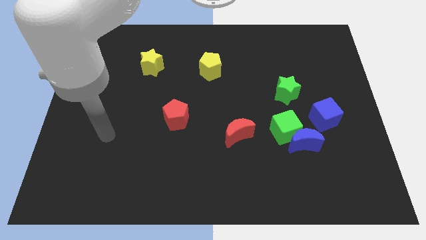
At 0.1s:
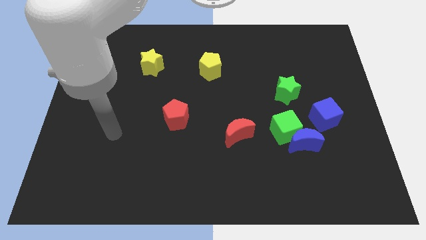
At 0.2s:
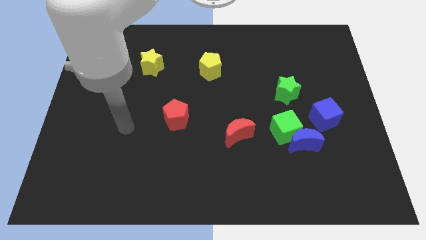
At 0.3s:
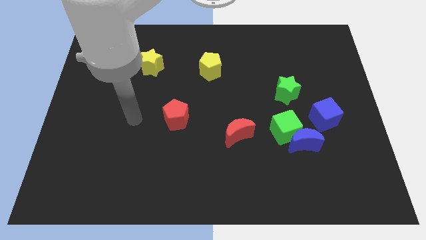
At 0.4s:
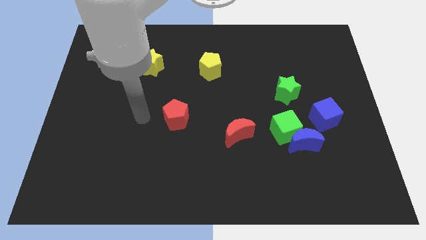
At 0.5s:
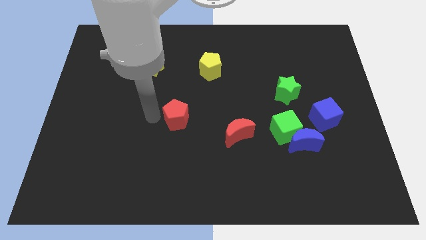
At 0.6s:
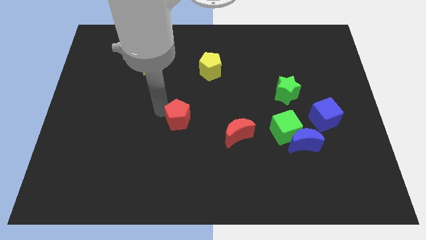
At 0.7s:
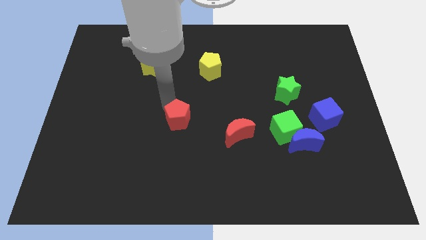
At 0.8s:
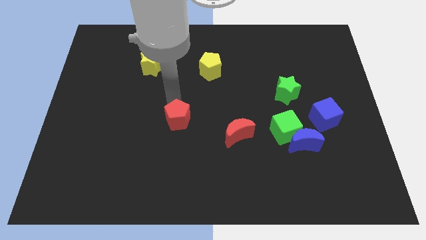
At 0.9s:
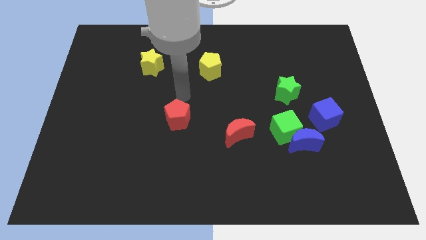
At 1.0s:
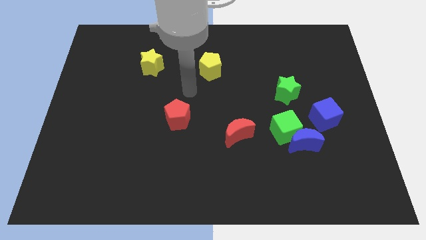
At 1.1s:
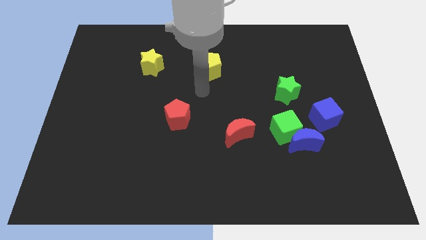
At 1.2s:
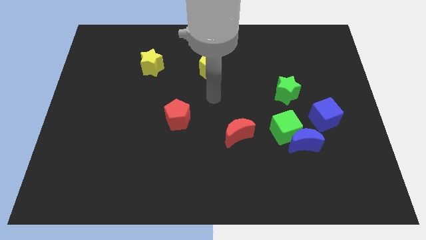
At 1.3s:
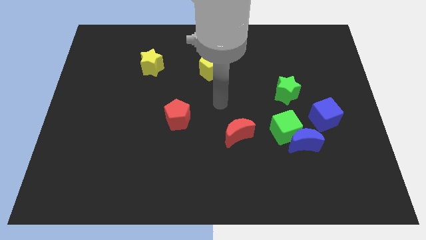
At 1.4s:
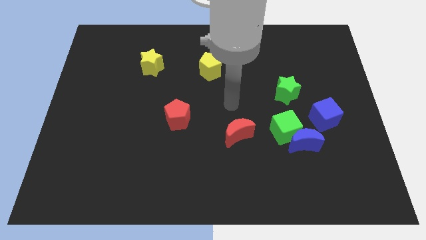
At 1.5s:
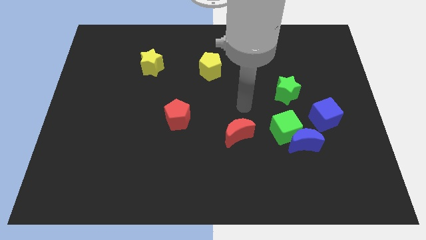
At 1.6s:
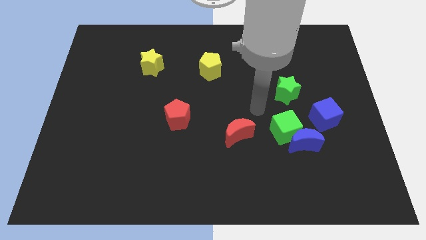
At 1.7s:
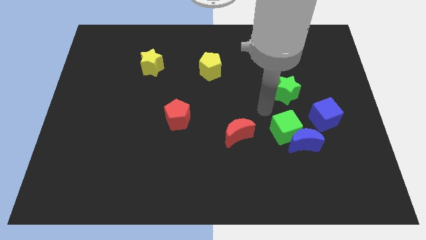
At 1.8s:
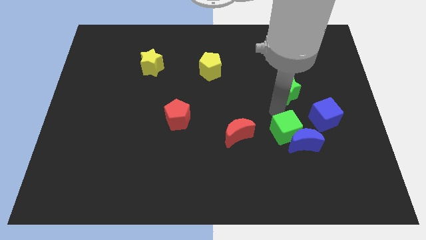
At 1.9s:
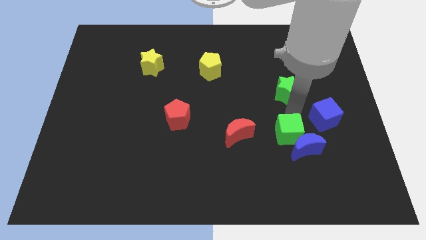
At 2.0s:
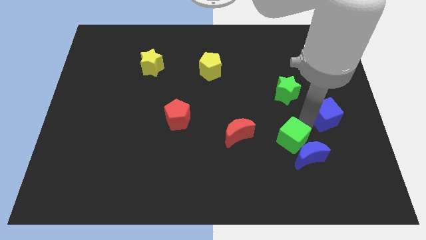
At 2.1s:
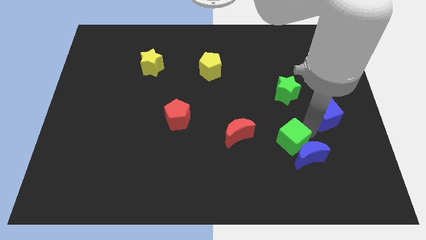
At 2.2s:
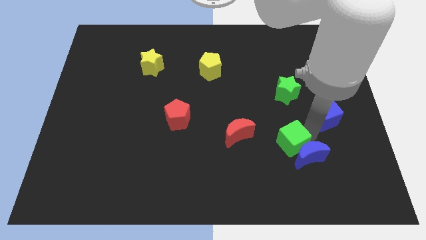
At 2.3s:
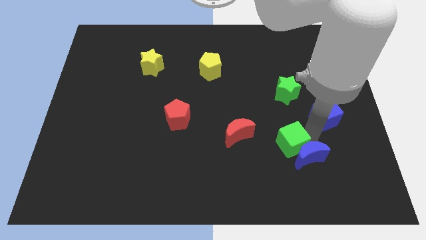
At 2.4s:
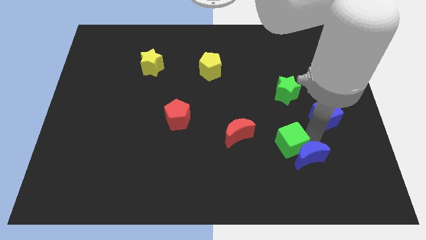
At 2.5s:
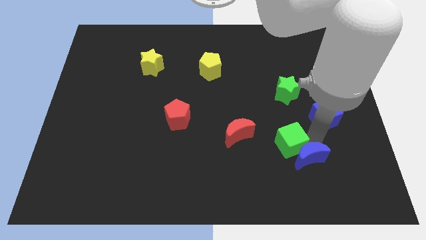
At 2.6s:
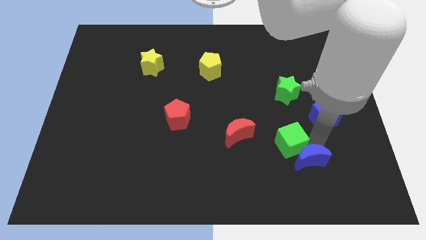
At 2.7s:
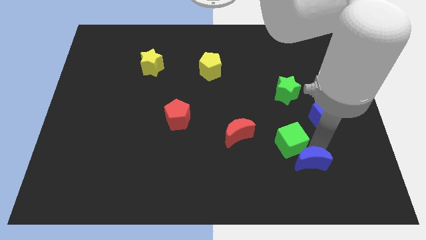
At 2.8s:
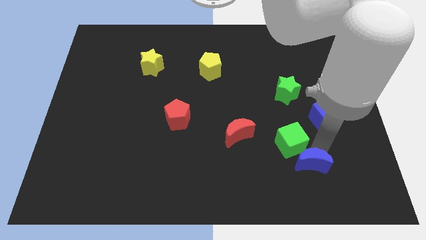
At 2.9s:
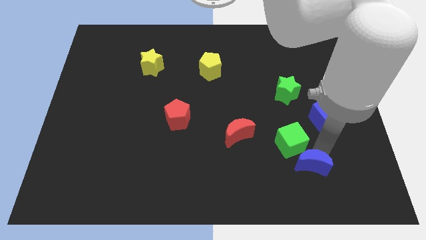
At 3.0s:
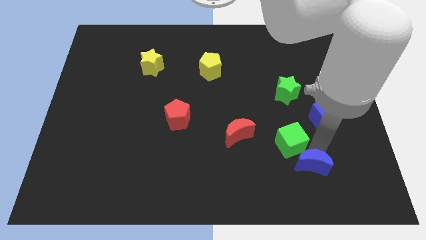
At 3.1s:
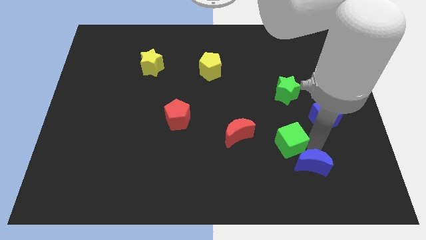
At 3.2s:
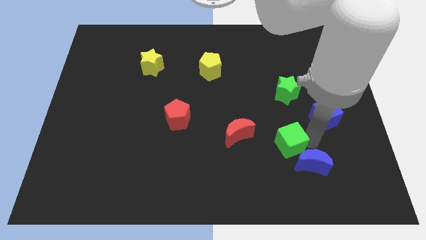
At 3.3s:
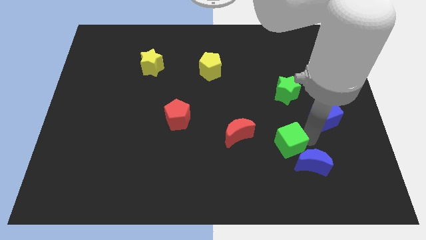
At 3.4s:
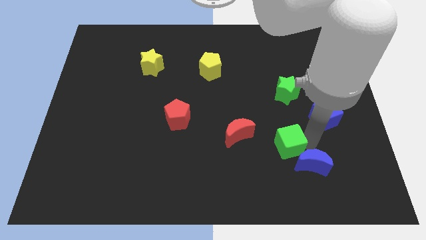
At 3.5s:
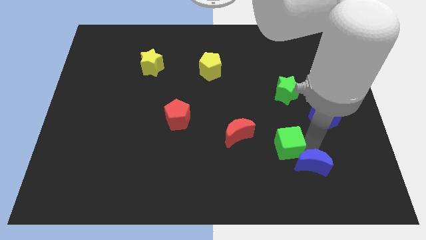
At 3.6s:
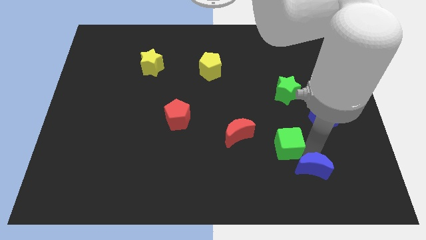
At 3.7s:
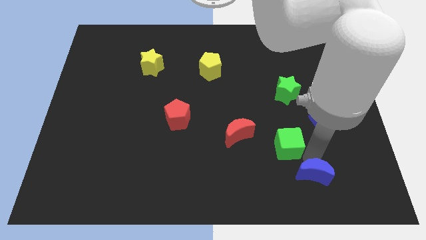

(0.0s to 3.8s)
separate the blue moon from the green cube and blue cube

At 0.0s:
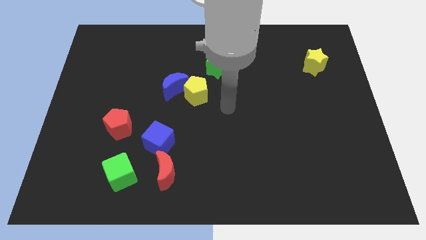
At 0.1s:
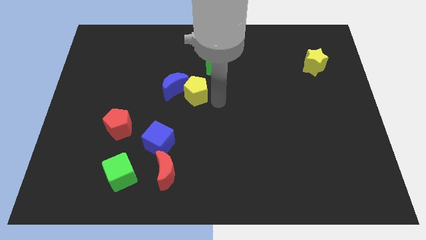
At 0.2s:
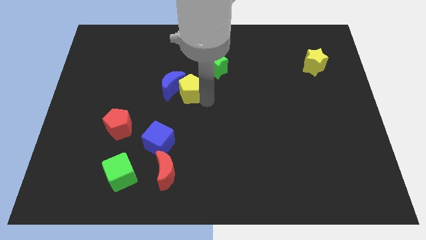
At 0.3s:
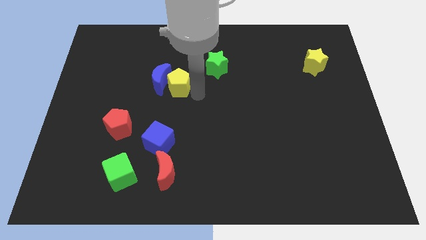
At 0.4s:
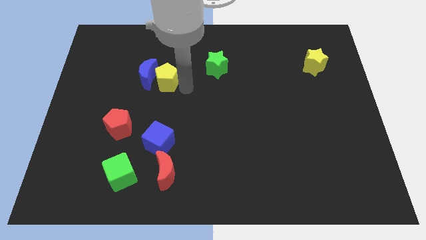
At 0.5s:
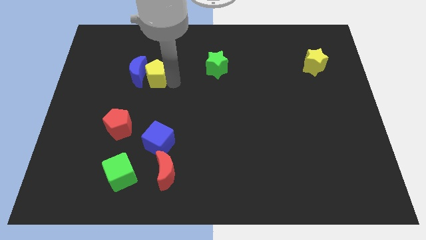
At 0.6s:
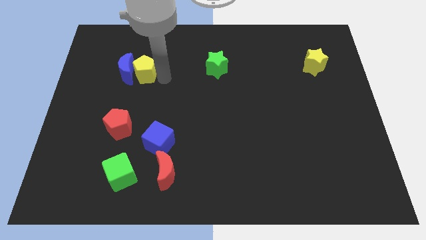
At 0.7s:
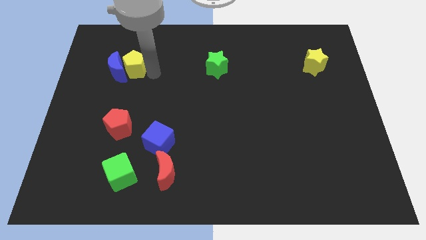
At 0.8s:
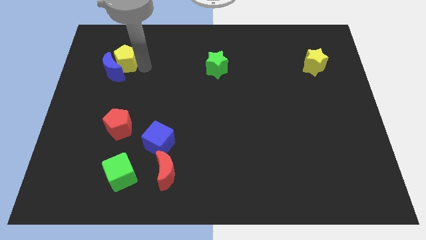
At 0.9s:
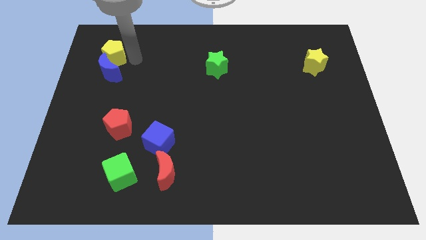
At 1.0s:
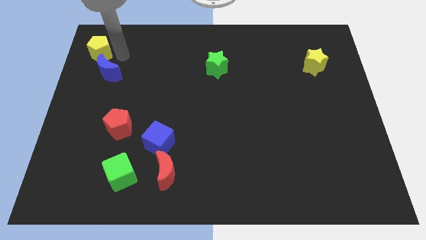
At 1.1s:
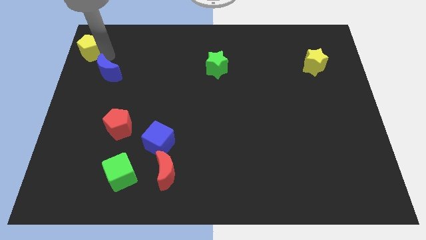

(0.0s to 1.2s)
pull the blue moon apart from the yellow pentagon

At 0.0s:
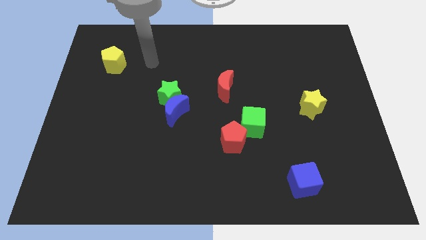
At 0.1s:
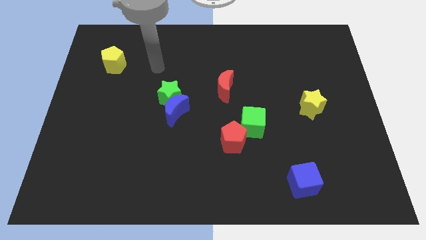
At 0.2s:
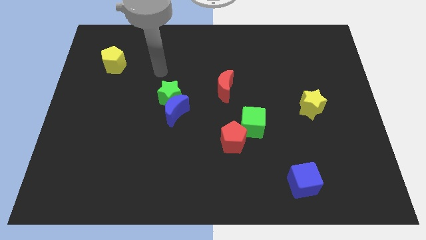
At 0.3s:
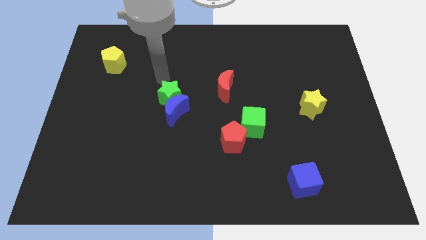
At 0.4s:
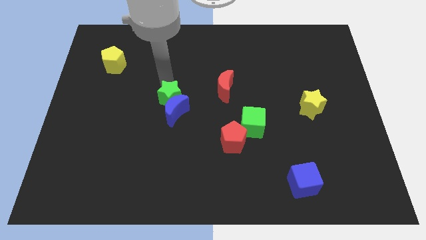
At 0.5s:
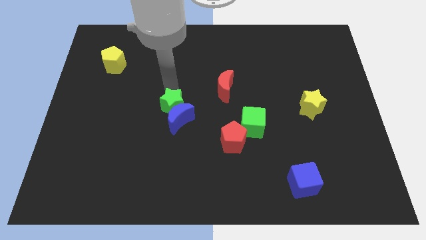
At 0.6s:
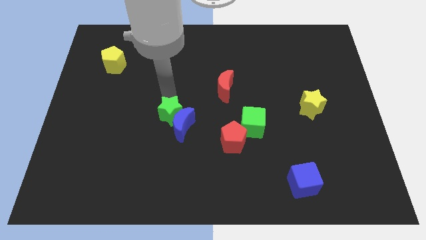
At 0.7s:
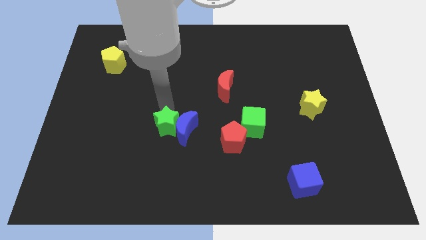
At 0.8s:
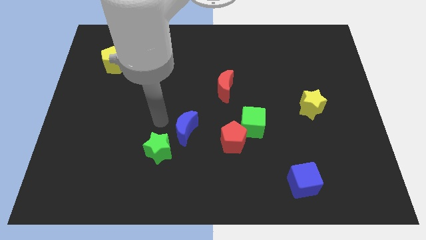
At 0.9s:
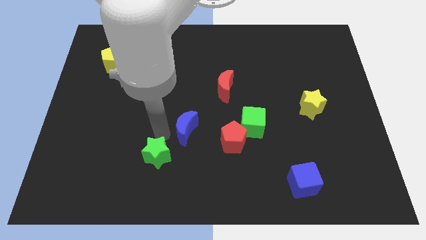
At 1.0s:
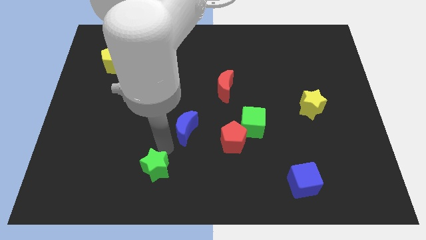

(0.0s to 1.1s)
pull the blue moon apart from the green star

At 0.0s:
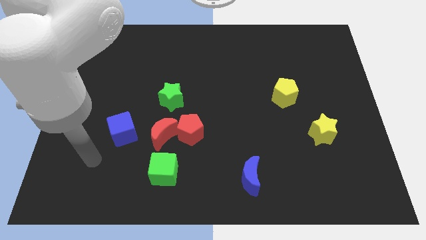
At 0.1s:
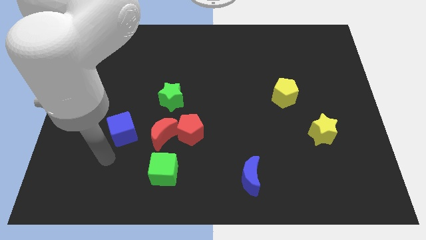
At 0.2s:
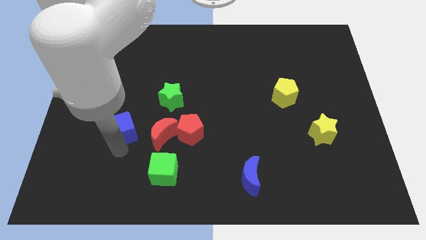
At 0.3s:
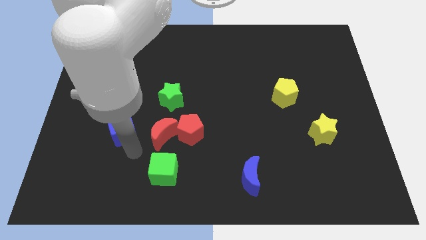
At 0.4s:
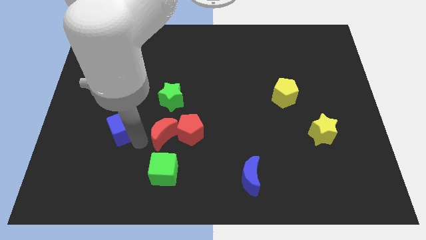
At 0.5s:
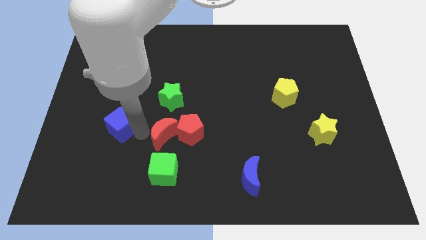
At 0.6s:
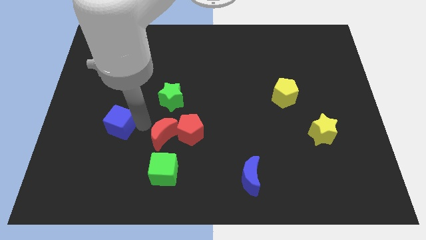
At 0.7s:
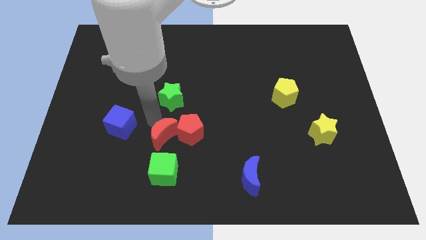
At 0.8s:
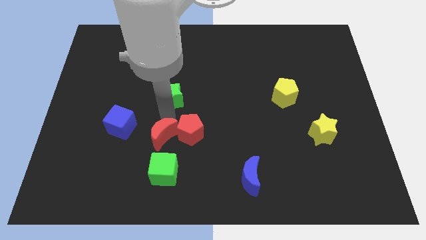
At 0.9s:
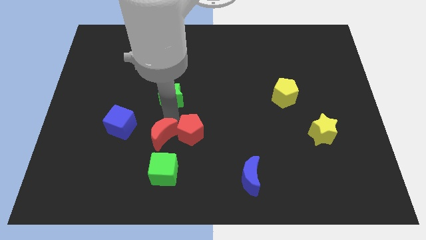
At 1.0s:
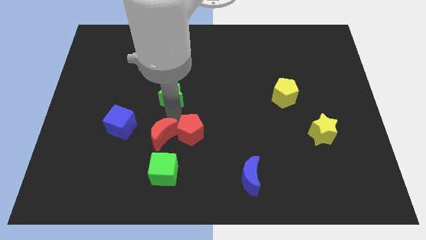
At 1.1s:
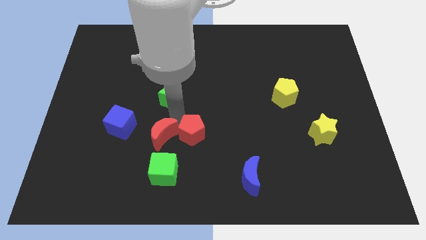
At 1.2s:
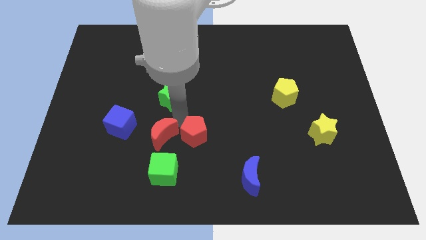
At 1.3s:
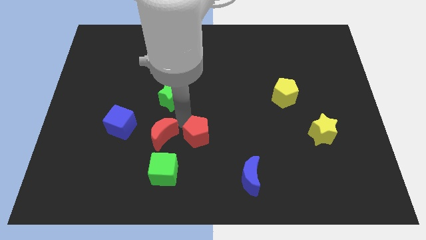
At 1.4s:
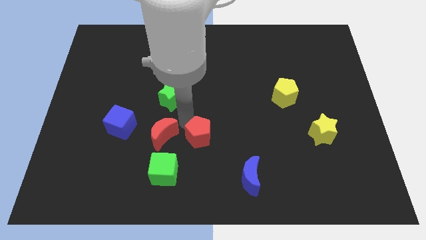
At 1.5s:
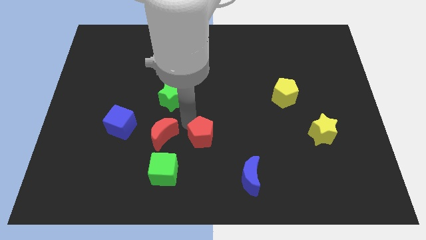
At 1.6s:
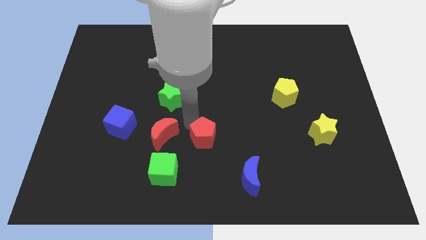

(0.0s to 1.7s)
move the red pentagon away from the red moon and green star

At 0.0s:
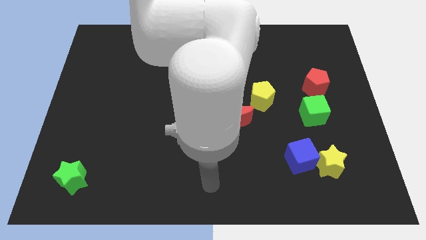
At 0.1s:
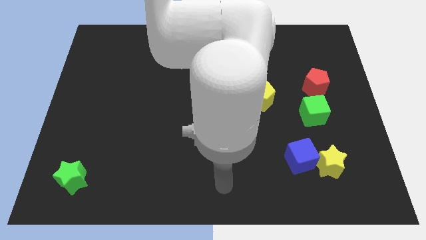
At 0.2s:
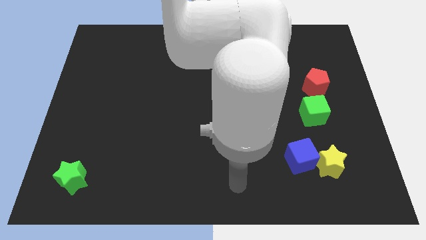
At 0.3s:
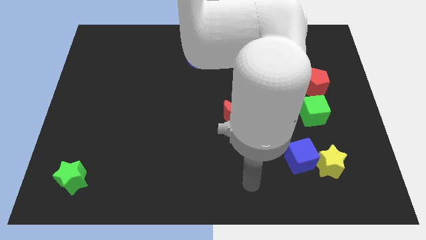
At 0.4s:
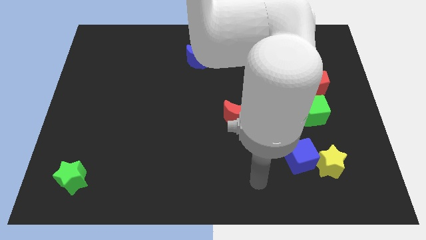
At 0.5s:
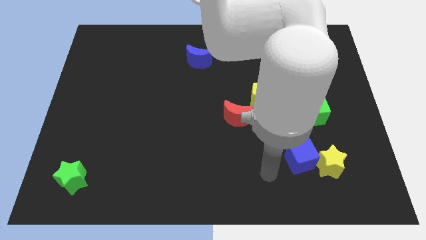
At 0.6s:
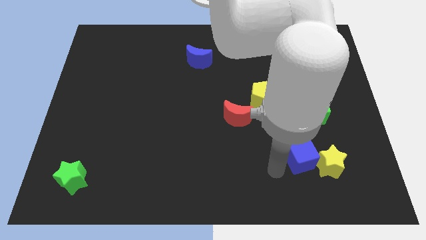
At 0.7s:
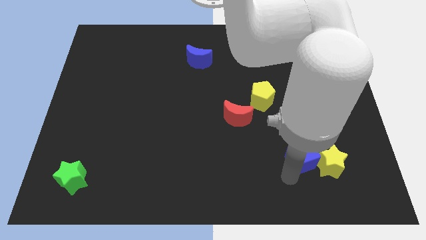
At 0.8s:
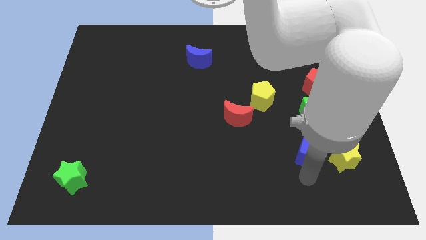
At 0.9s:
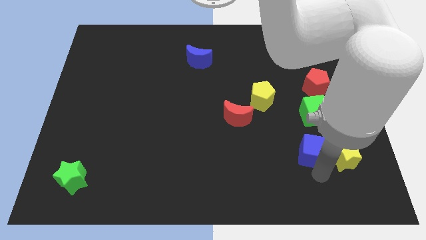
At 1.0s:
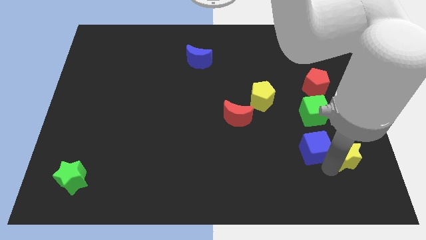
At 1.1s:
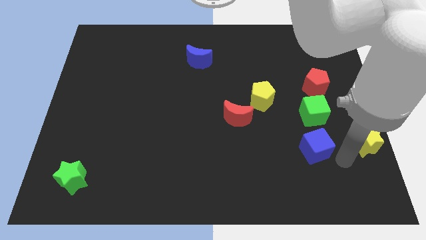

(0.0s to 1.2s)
pull the blue cube apart from the yellow star

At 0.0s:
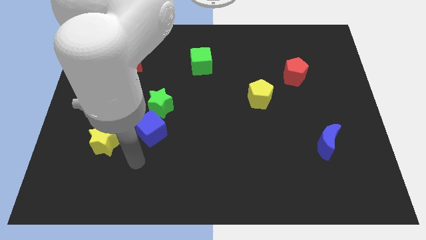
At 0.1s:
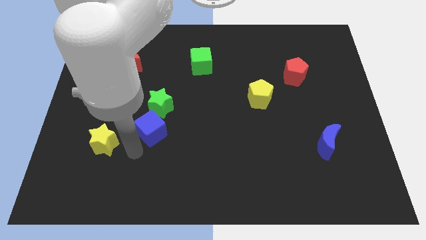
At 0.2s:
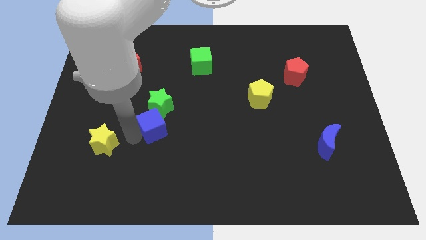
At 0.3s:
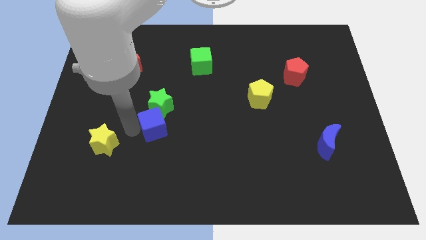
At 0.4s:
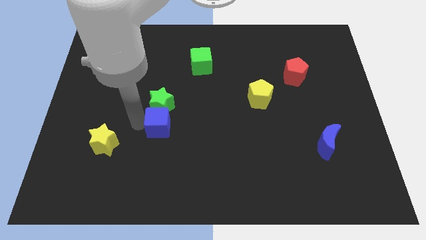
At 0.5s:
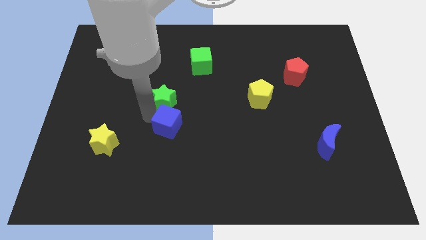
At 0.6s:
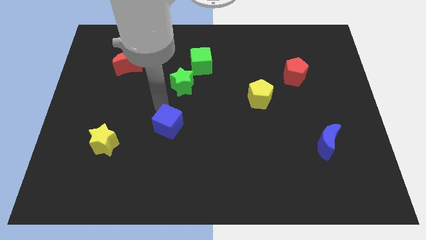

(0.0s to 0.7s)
pull the blue cube apart from the green star
